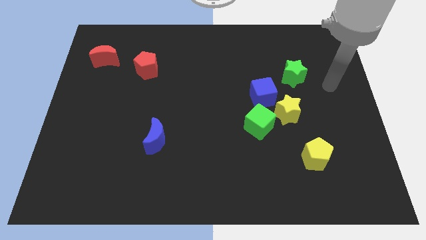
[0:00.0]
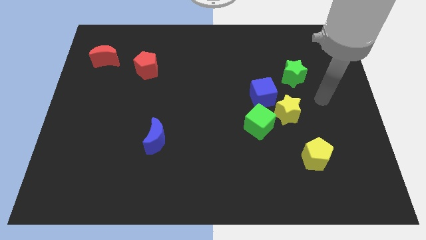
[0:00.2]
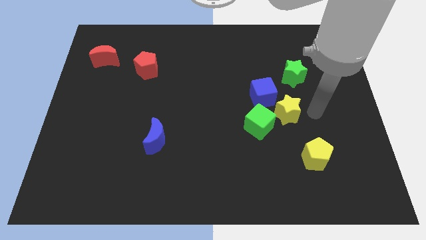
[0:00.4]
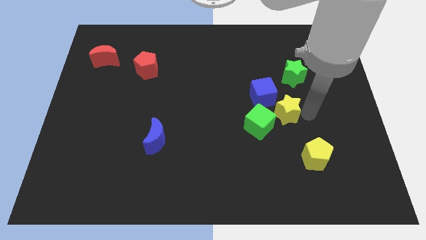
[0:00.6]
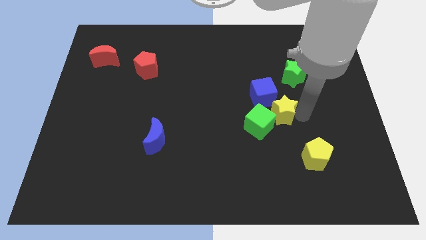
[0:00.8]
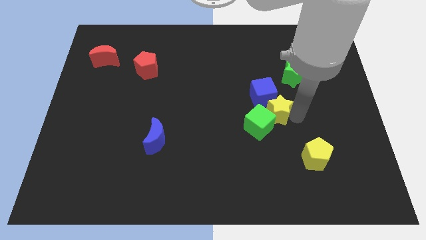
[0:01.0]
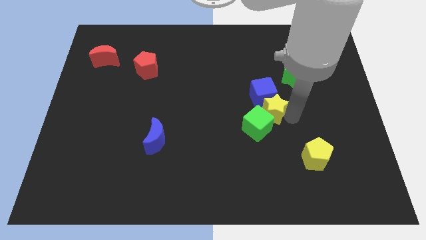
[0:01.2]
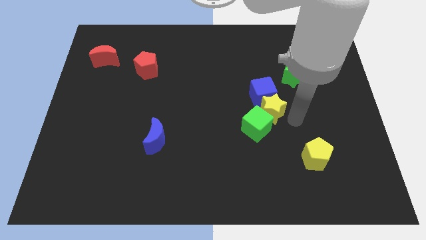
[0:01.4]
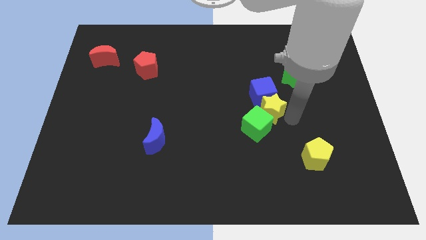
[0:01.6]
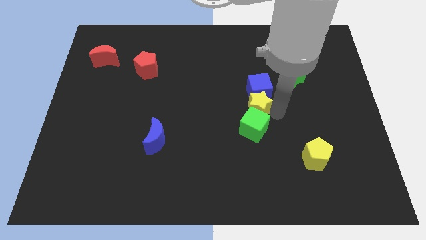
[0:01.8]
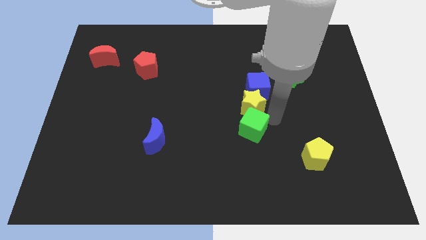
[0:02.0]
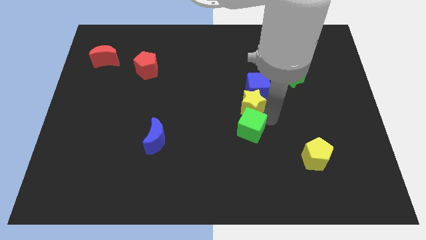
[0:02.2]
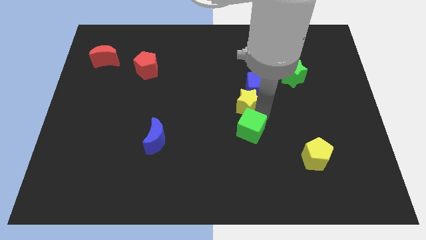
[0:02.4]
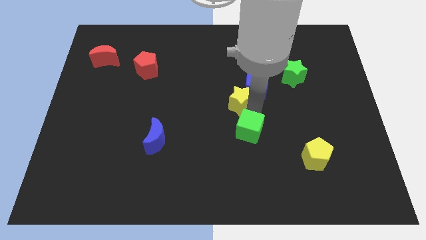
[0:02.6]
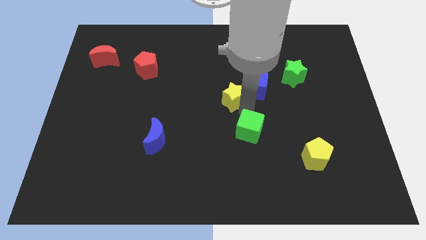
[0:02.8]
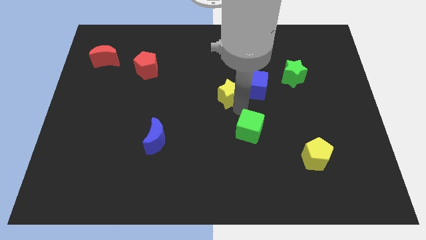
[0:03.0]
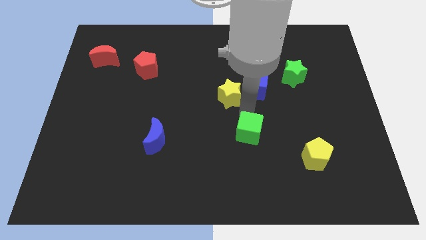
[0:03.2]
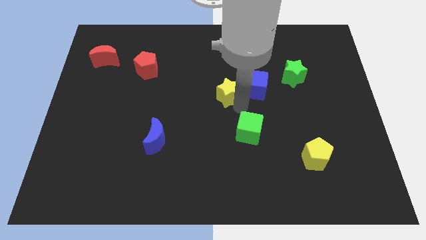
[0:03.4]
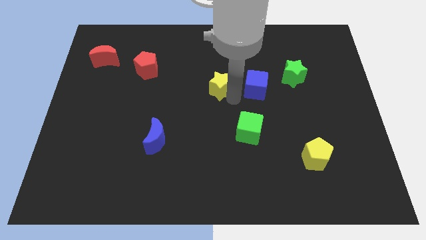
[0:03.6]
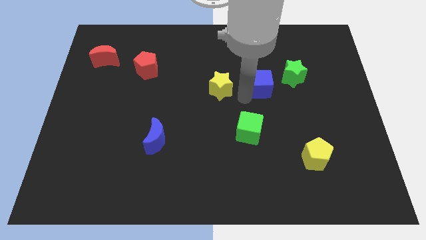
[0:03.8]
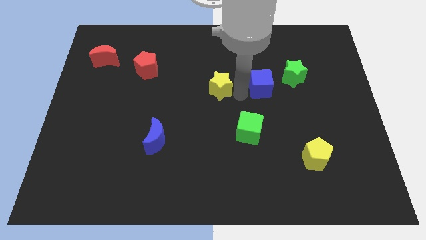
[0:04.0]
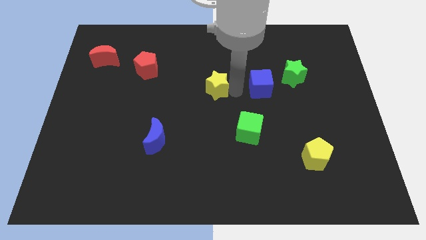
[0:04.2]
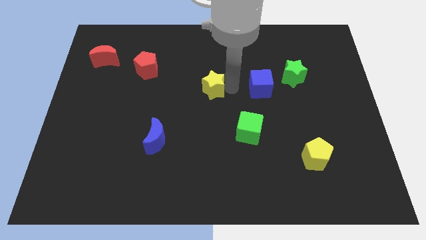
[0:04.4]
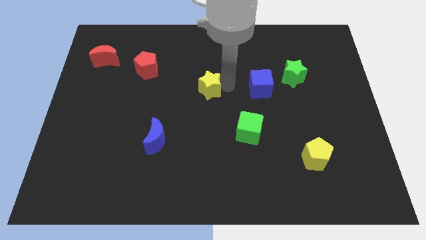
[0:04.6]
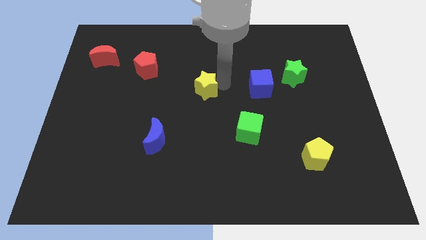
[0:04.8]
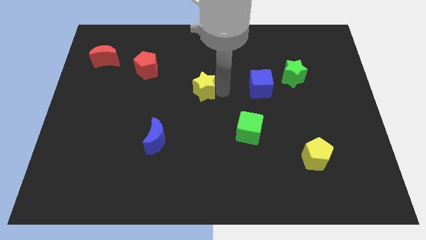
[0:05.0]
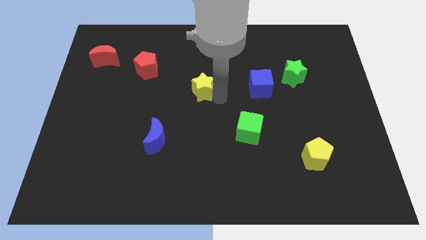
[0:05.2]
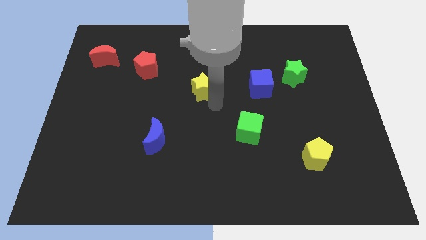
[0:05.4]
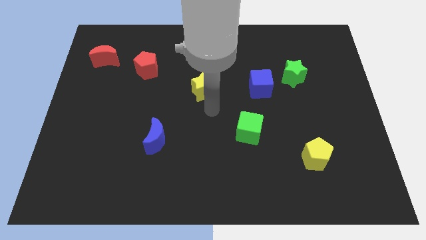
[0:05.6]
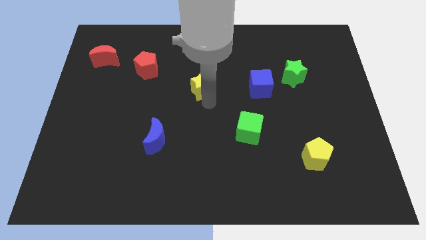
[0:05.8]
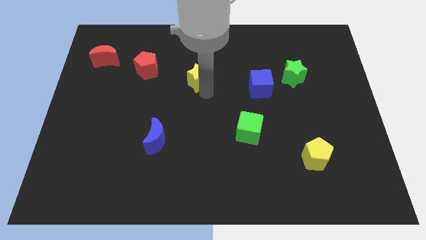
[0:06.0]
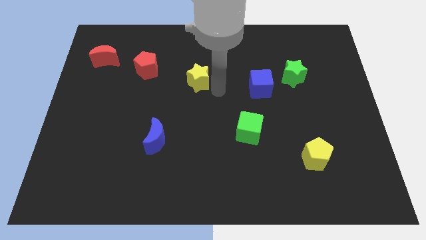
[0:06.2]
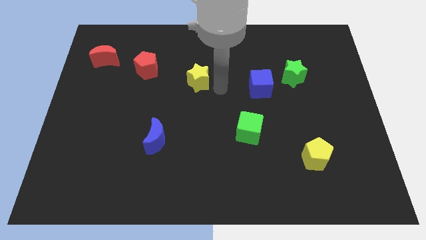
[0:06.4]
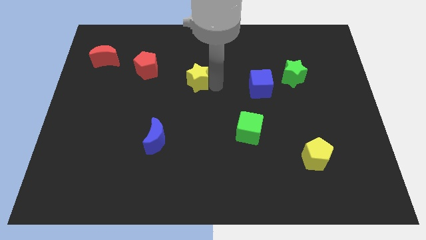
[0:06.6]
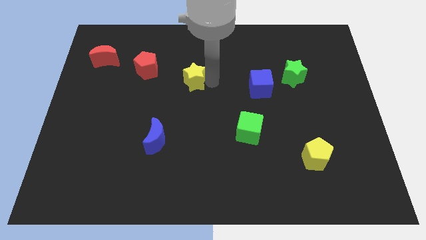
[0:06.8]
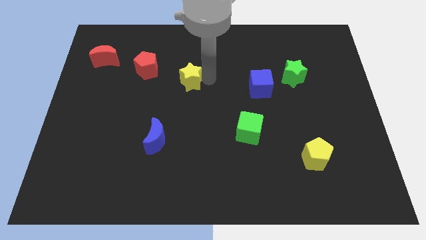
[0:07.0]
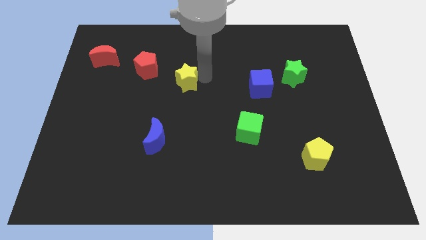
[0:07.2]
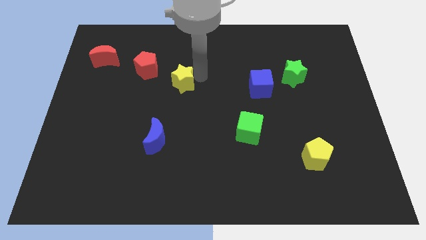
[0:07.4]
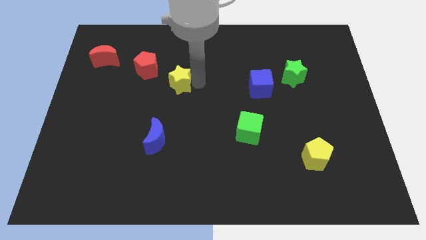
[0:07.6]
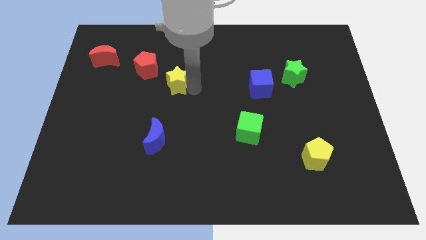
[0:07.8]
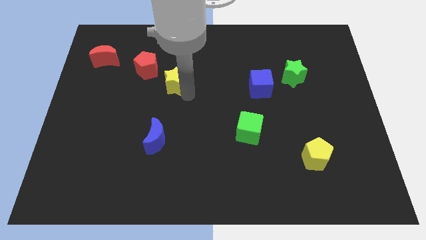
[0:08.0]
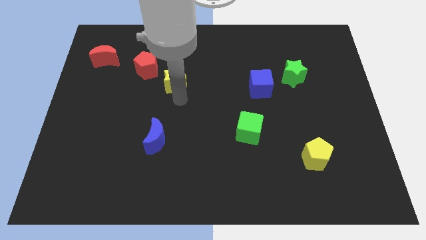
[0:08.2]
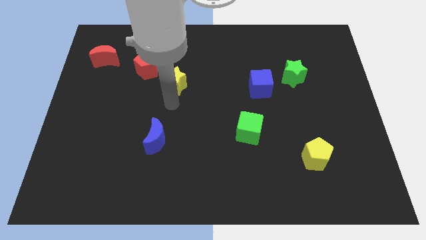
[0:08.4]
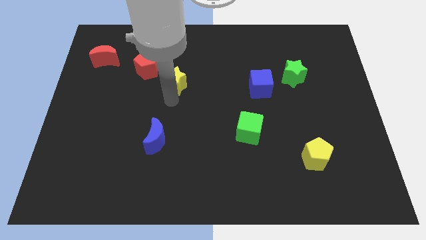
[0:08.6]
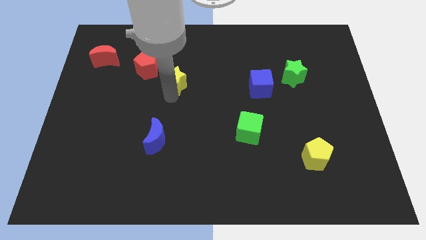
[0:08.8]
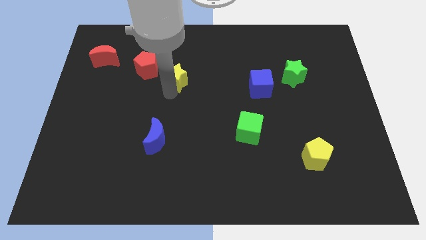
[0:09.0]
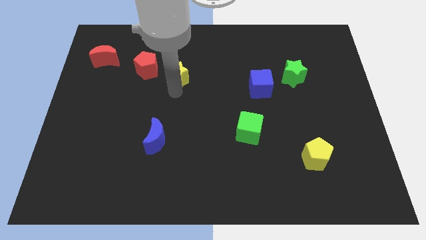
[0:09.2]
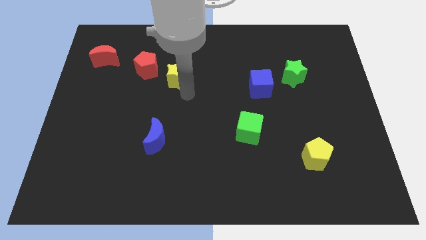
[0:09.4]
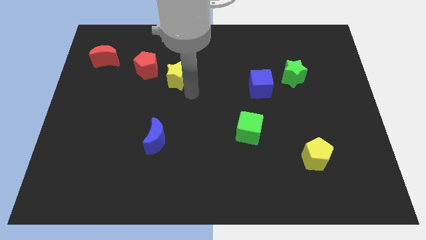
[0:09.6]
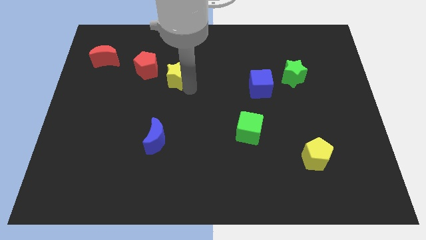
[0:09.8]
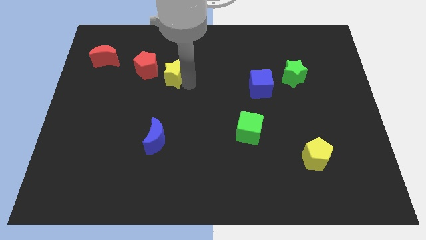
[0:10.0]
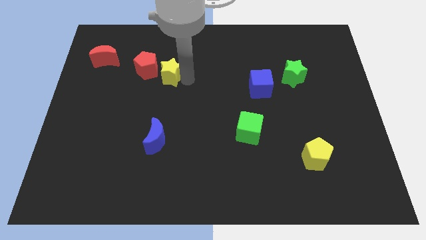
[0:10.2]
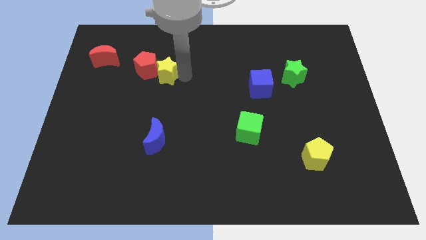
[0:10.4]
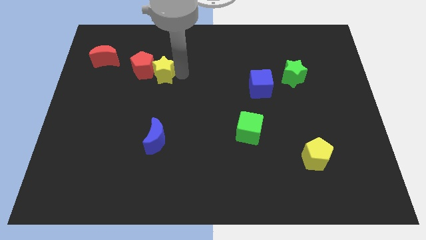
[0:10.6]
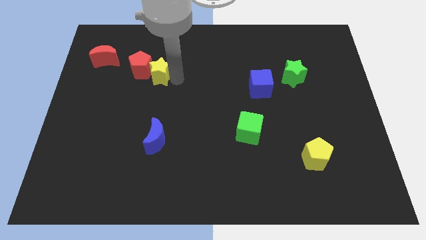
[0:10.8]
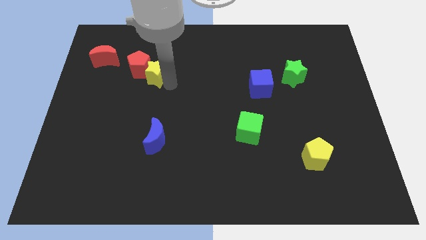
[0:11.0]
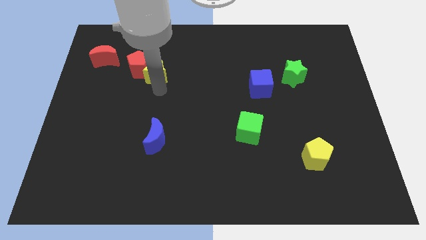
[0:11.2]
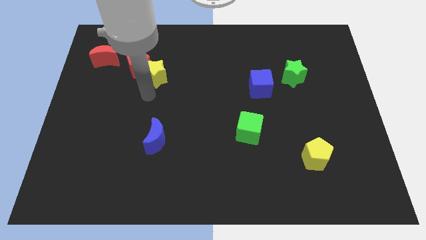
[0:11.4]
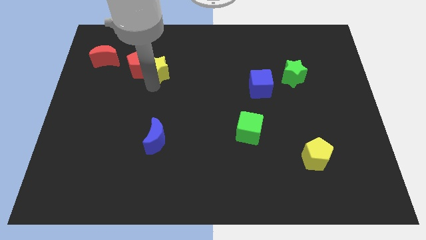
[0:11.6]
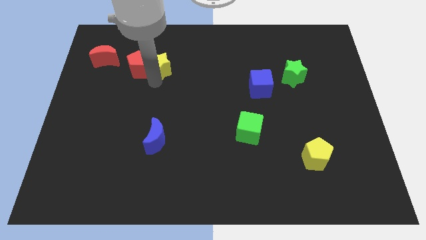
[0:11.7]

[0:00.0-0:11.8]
slide the yellow star to the right of the red moon

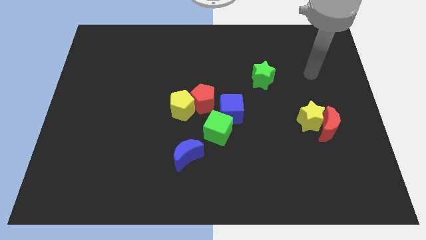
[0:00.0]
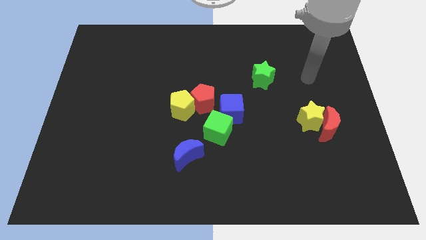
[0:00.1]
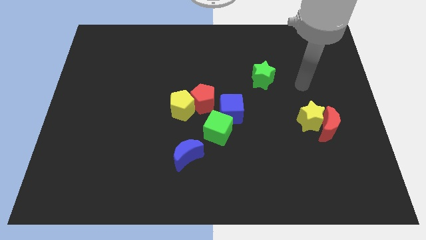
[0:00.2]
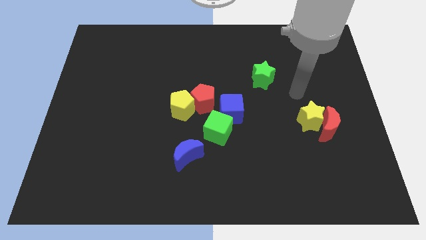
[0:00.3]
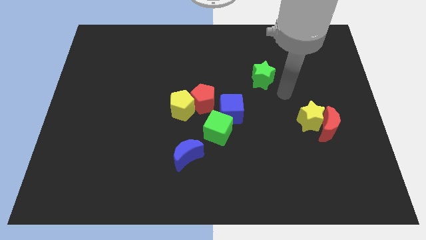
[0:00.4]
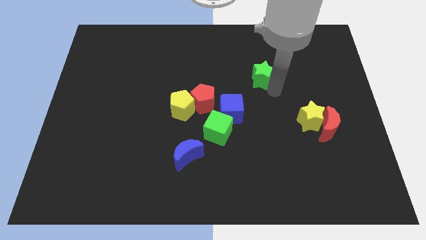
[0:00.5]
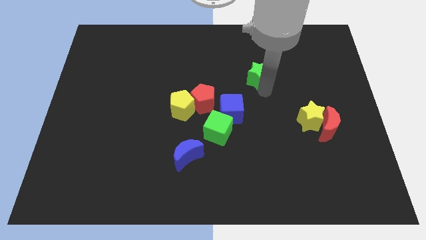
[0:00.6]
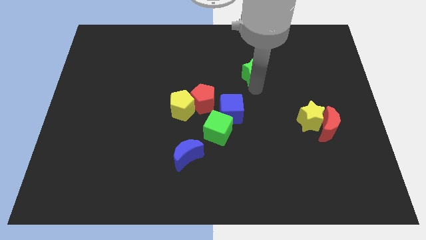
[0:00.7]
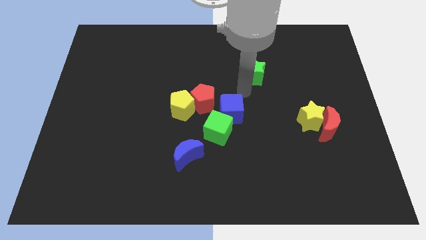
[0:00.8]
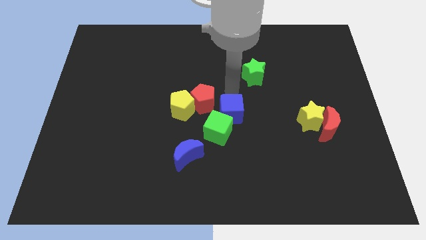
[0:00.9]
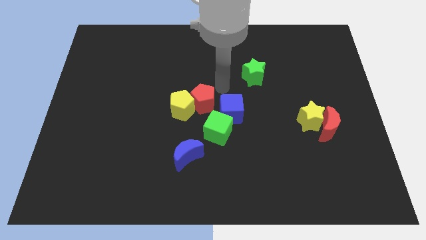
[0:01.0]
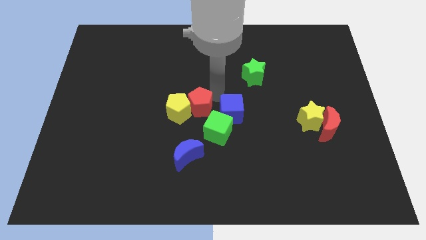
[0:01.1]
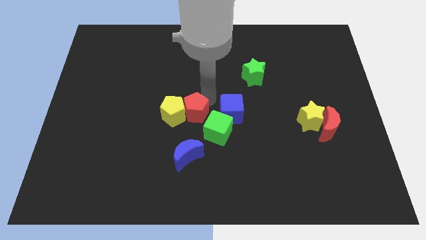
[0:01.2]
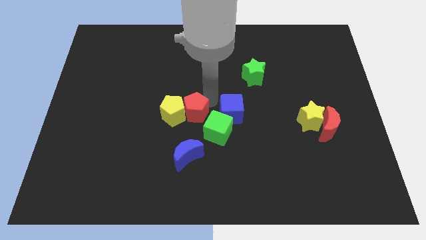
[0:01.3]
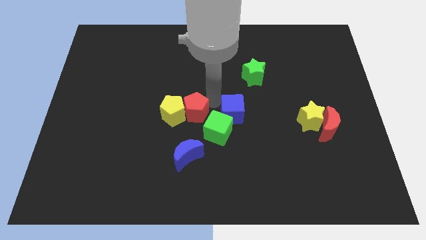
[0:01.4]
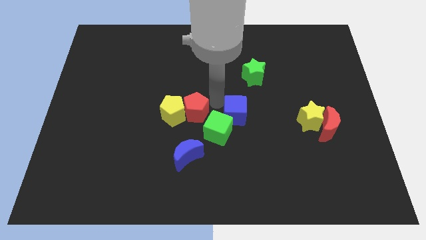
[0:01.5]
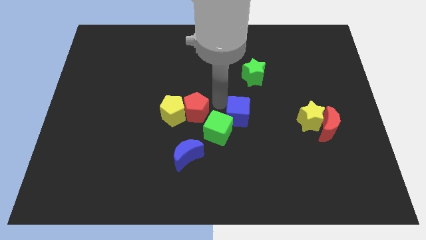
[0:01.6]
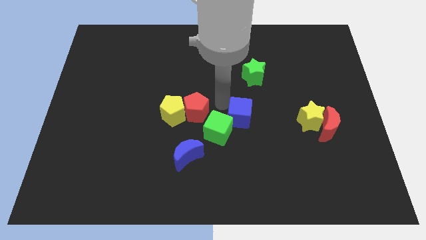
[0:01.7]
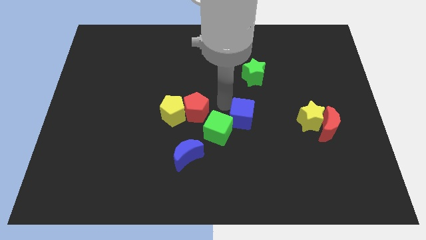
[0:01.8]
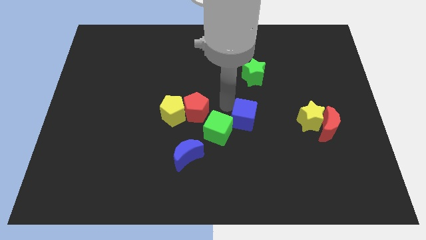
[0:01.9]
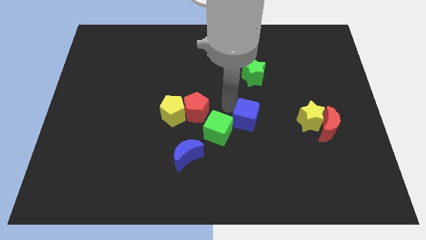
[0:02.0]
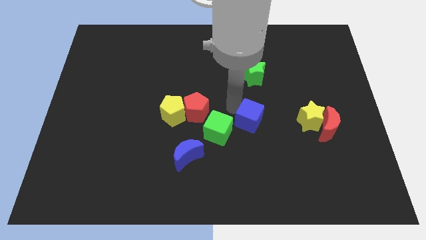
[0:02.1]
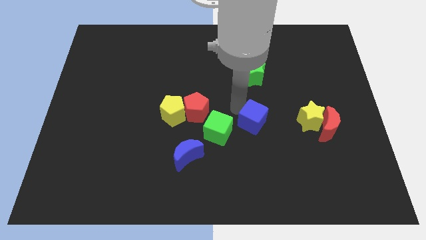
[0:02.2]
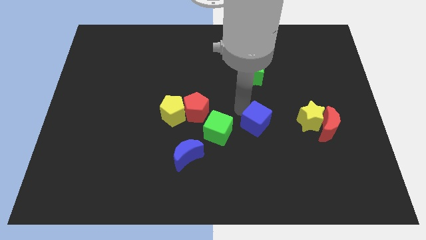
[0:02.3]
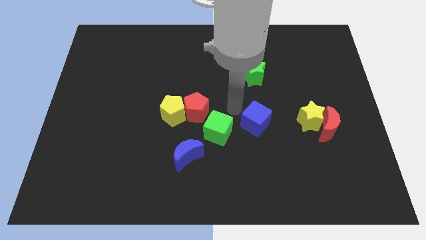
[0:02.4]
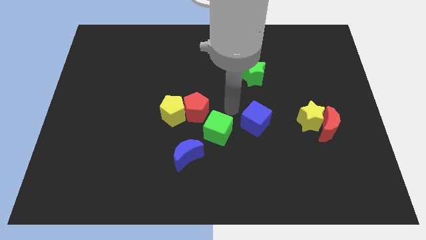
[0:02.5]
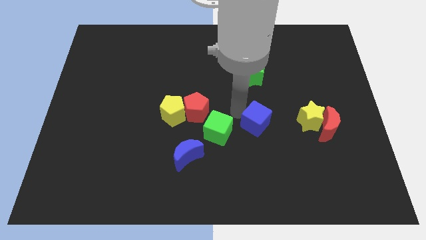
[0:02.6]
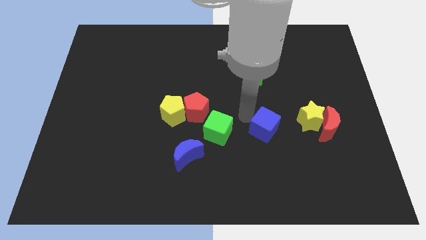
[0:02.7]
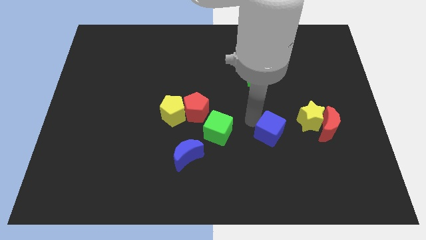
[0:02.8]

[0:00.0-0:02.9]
put the blue cube to the bottom left of the yellow star
